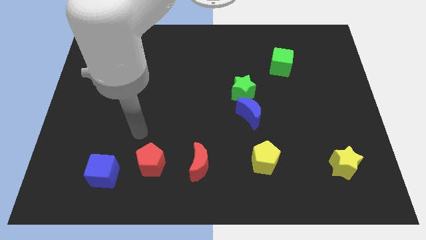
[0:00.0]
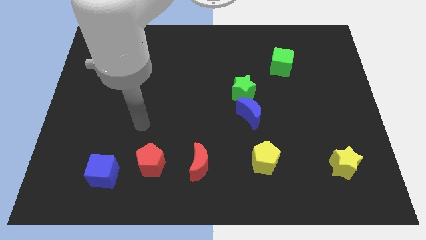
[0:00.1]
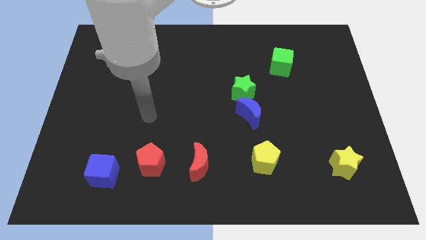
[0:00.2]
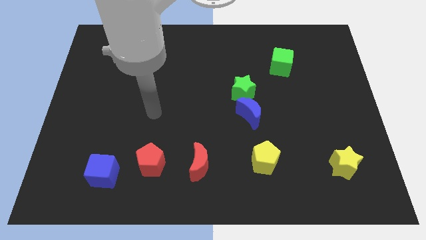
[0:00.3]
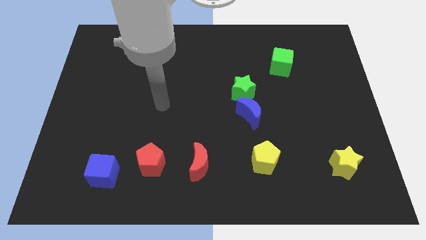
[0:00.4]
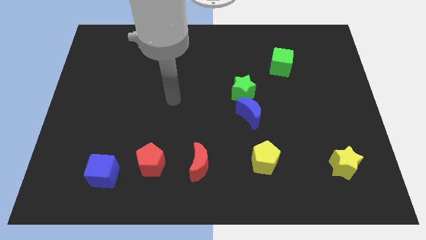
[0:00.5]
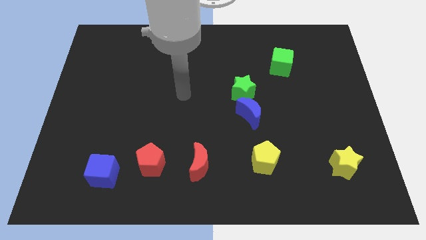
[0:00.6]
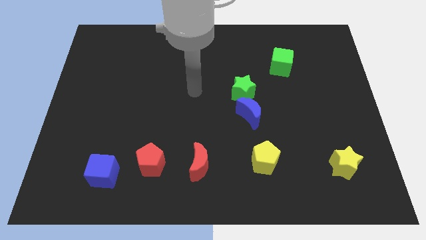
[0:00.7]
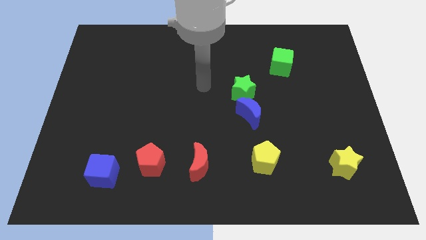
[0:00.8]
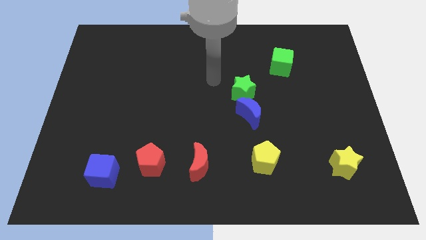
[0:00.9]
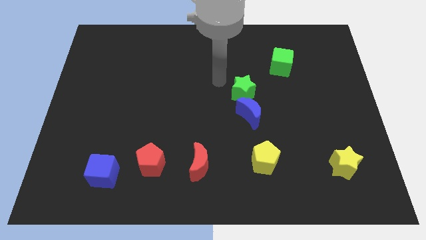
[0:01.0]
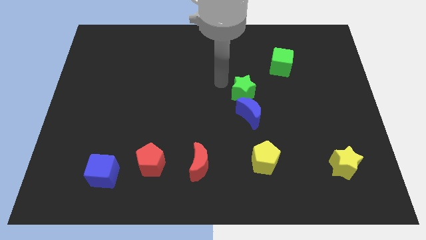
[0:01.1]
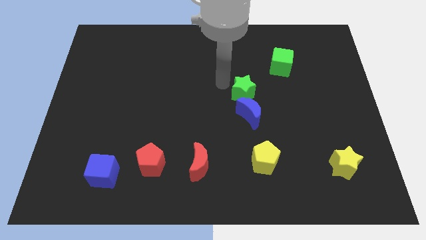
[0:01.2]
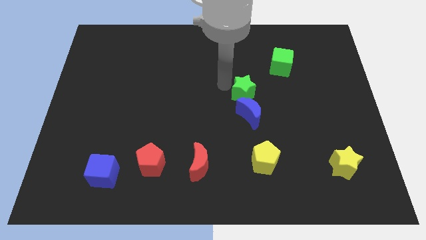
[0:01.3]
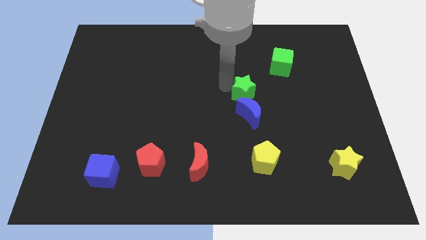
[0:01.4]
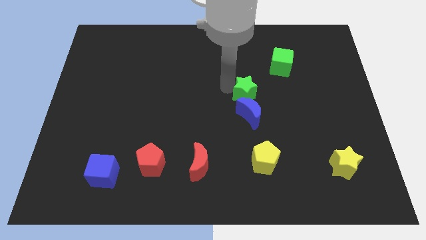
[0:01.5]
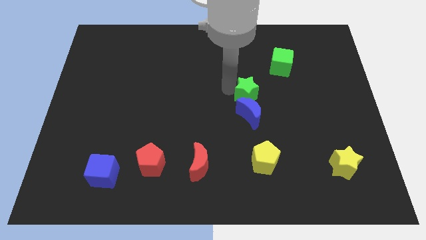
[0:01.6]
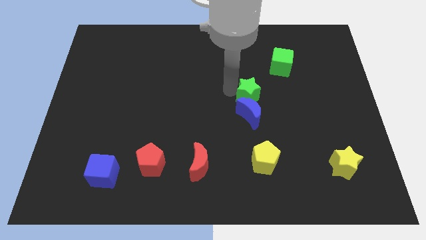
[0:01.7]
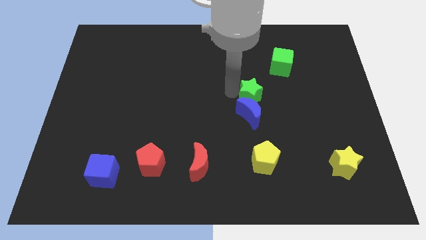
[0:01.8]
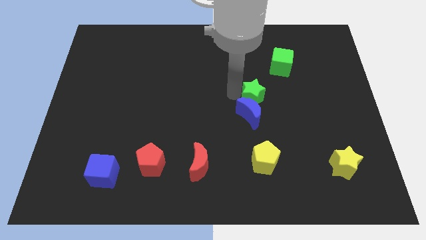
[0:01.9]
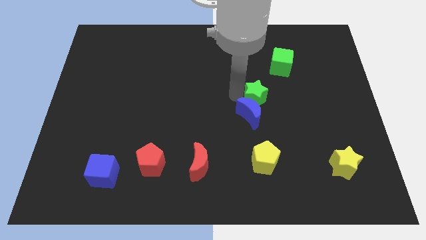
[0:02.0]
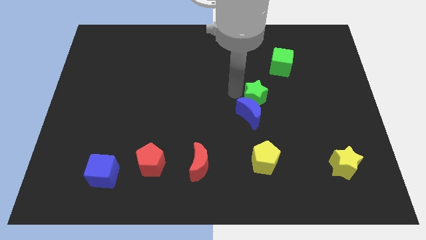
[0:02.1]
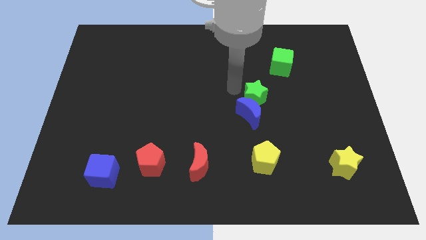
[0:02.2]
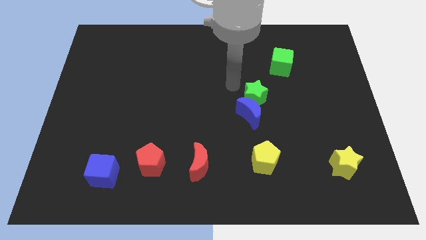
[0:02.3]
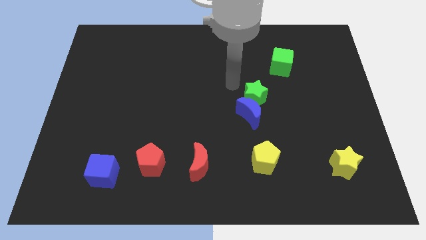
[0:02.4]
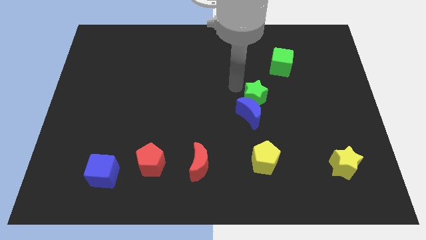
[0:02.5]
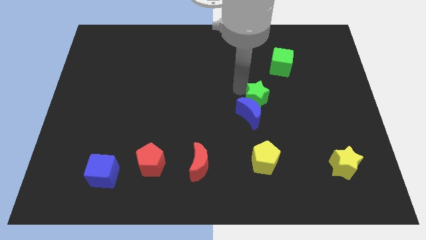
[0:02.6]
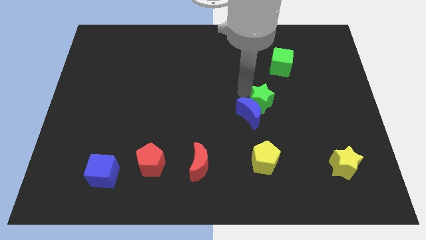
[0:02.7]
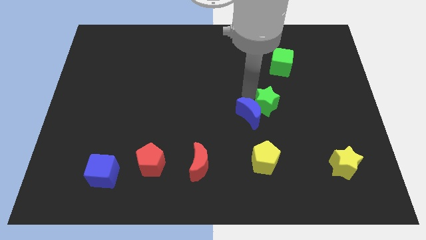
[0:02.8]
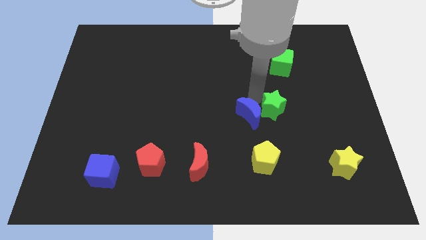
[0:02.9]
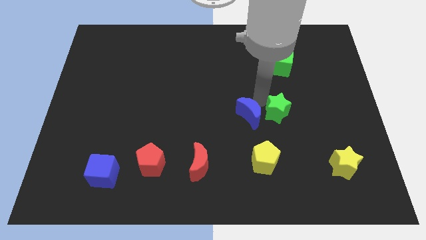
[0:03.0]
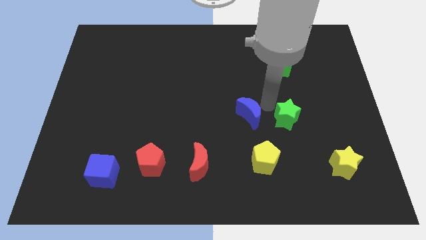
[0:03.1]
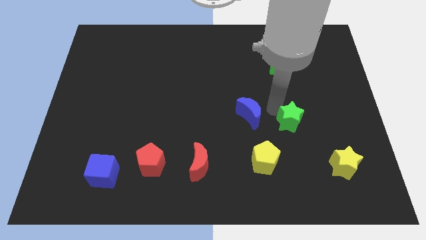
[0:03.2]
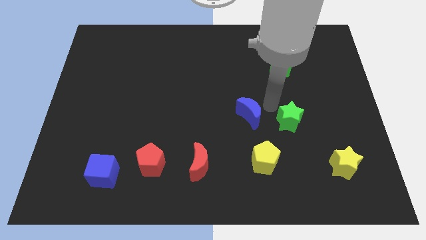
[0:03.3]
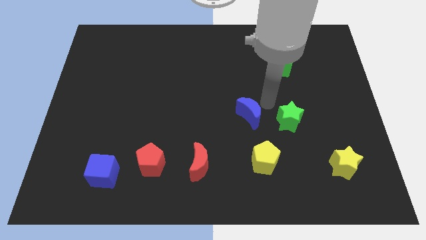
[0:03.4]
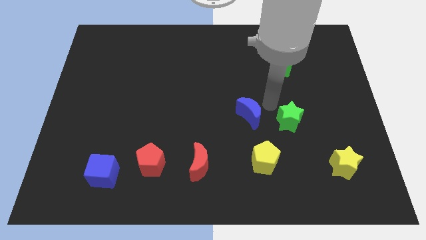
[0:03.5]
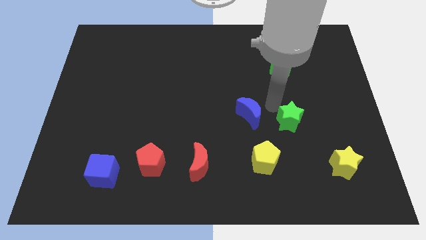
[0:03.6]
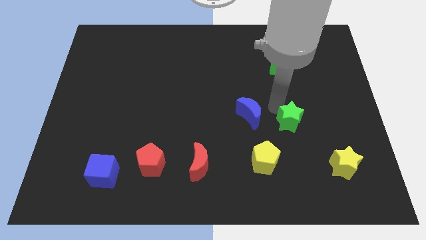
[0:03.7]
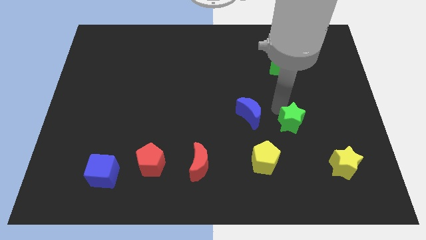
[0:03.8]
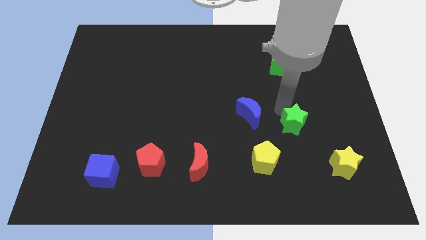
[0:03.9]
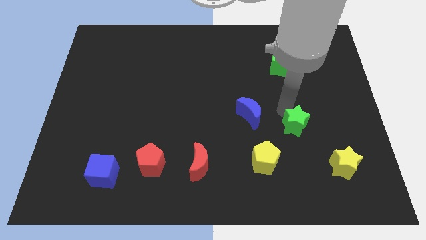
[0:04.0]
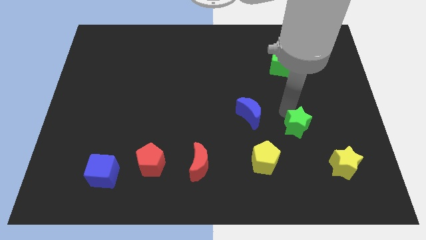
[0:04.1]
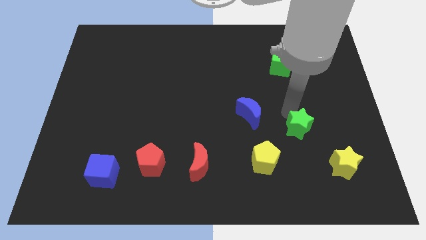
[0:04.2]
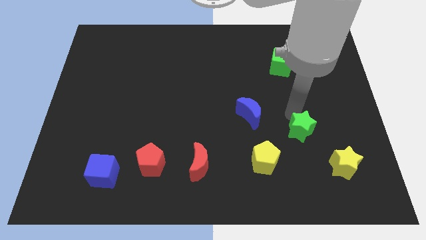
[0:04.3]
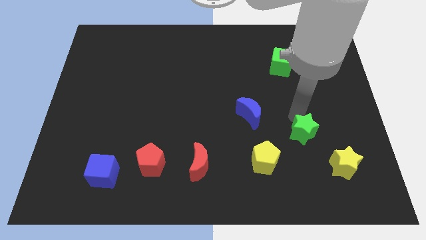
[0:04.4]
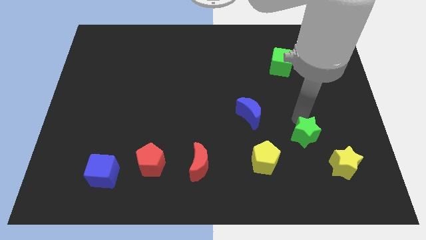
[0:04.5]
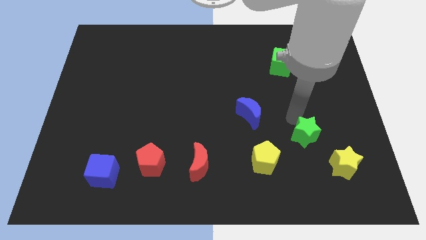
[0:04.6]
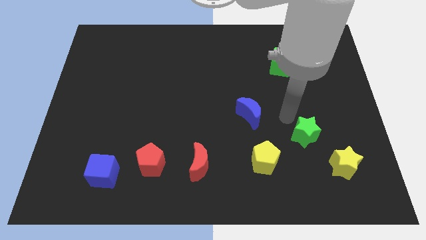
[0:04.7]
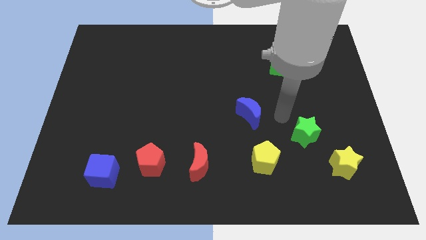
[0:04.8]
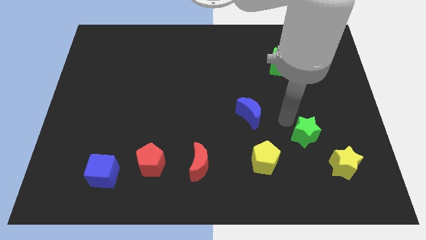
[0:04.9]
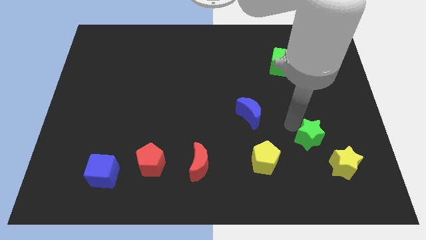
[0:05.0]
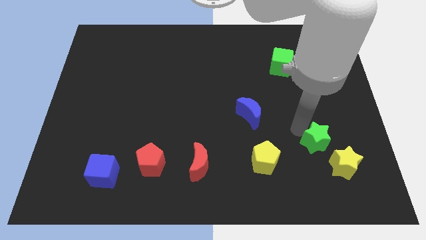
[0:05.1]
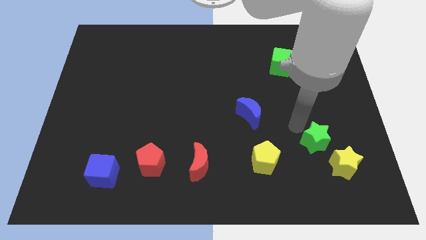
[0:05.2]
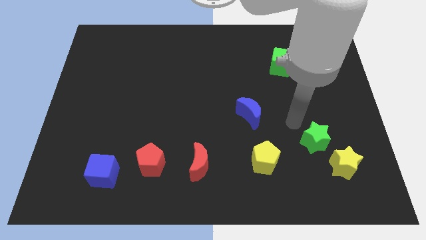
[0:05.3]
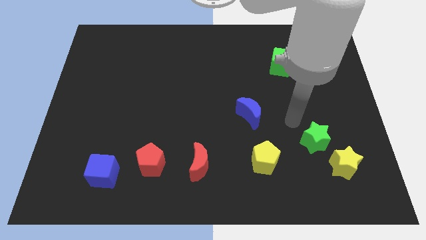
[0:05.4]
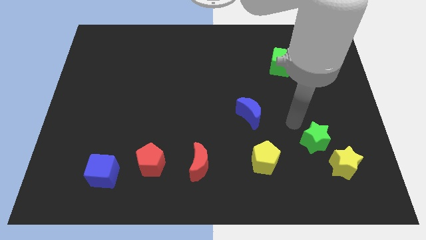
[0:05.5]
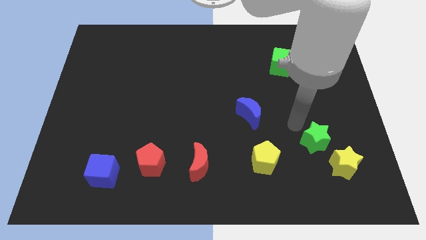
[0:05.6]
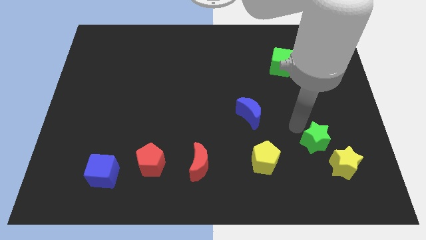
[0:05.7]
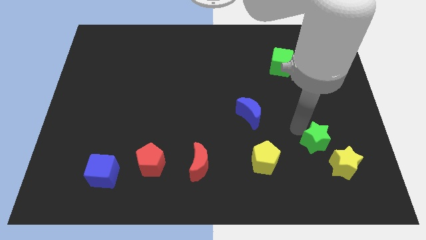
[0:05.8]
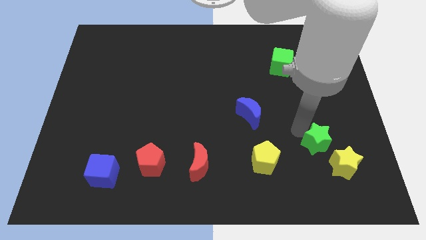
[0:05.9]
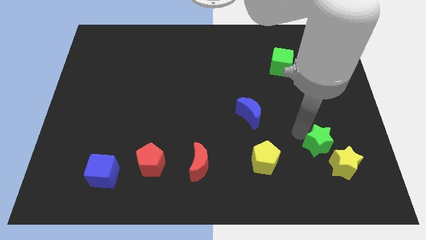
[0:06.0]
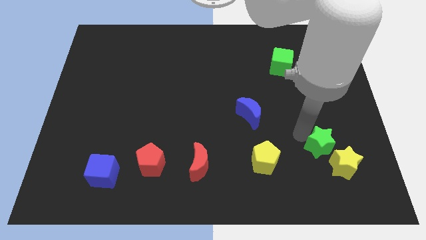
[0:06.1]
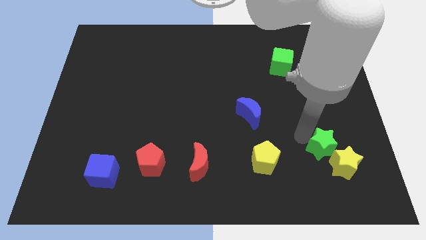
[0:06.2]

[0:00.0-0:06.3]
slide the green star next to the yellow star

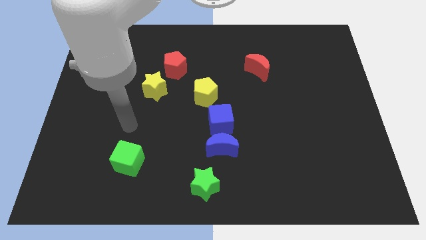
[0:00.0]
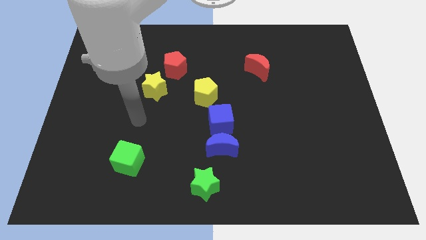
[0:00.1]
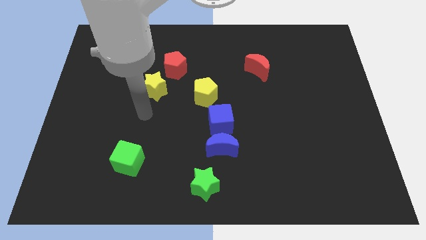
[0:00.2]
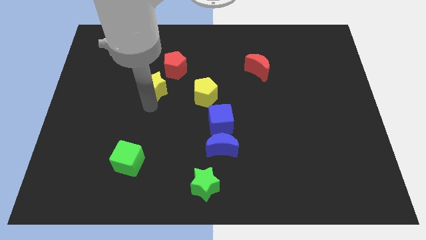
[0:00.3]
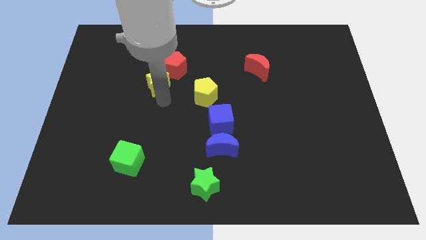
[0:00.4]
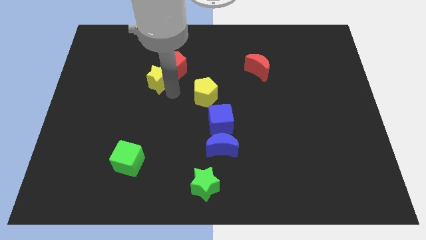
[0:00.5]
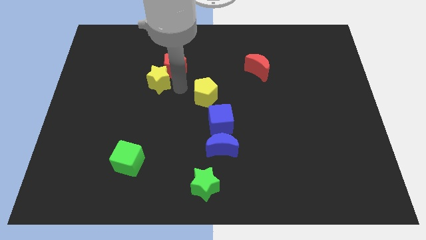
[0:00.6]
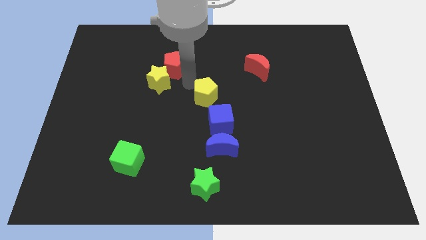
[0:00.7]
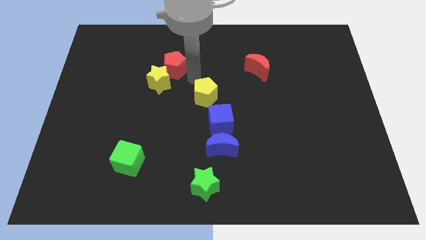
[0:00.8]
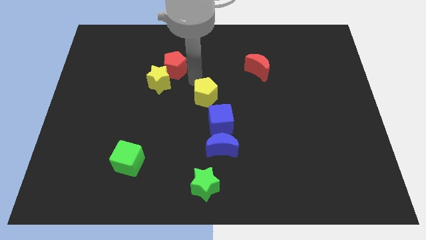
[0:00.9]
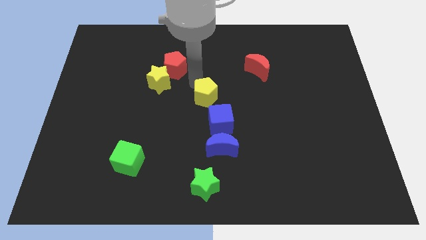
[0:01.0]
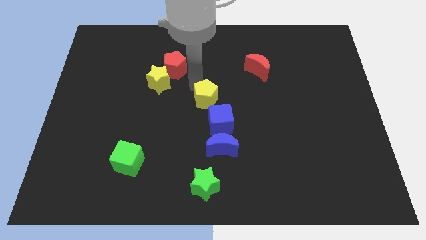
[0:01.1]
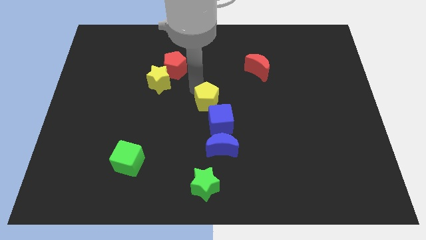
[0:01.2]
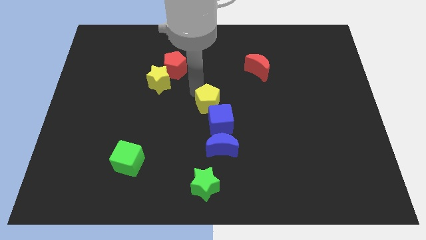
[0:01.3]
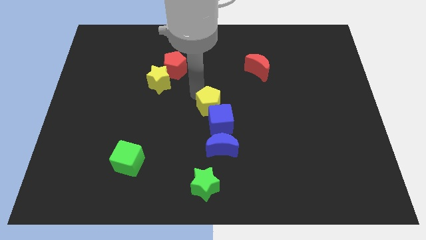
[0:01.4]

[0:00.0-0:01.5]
push the yellow pentagon to the blue cube
